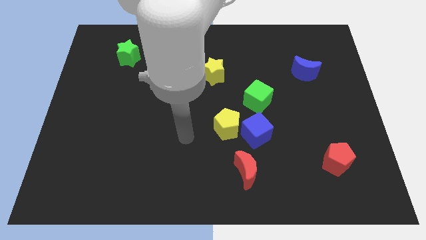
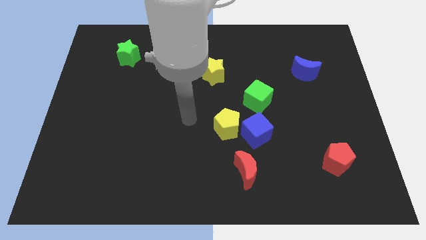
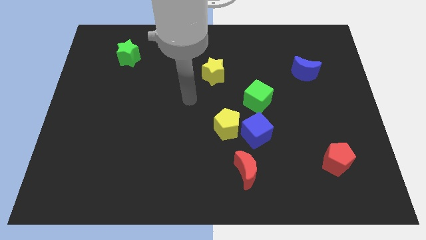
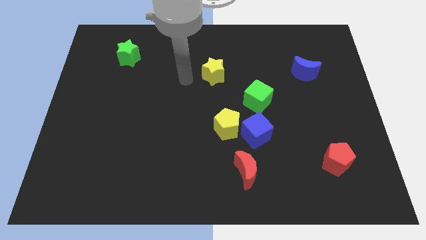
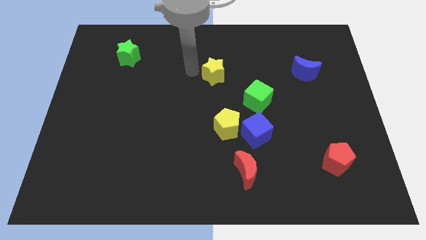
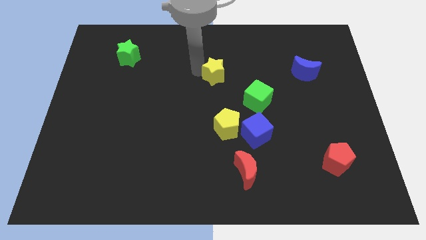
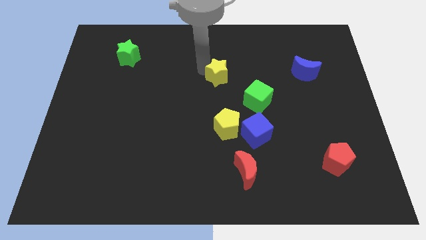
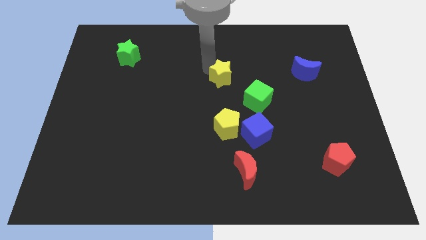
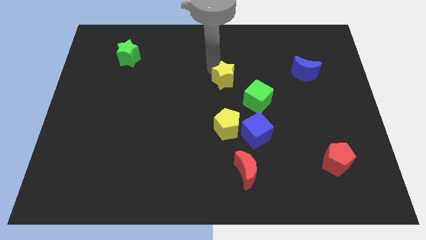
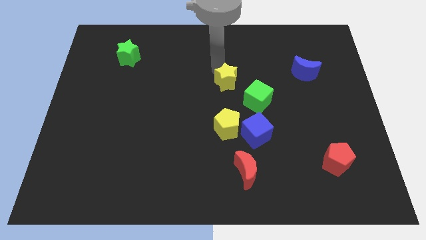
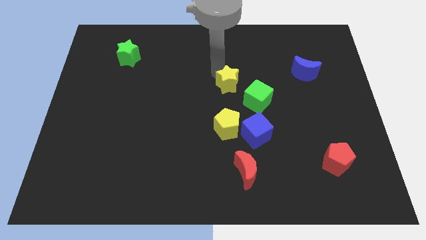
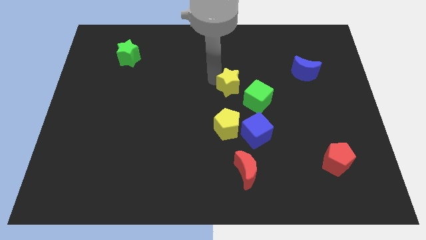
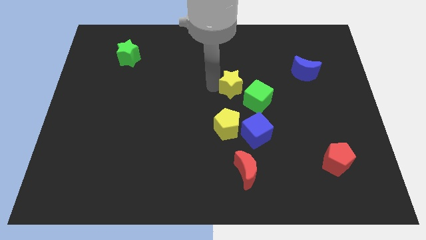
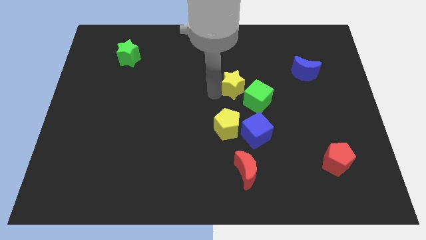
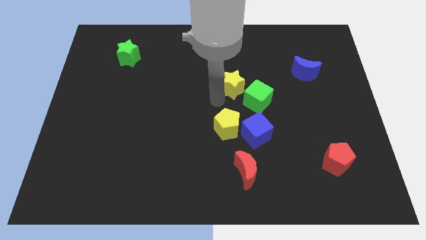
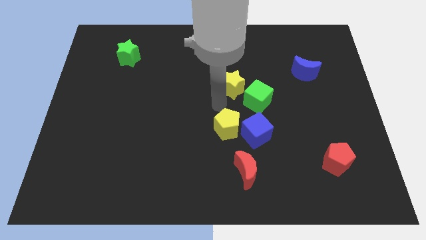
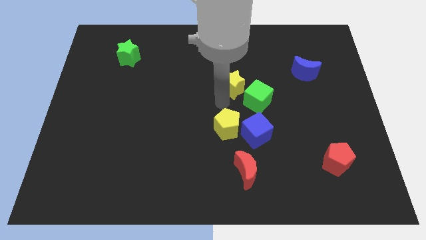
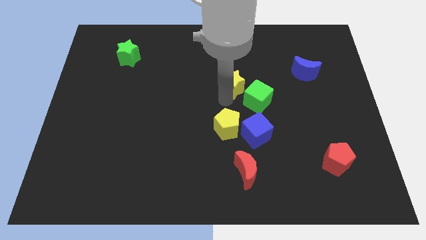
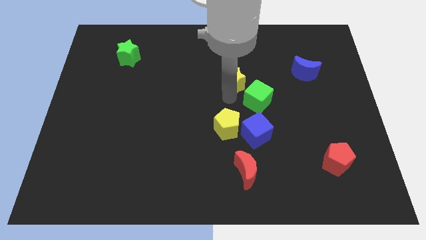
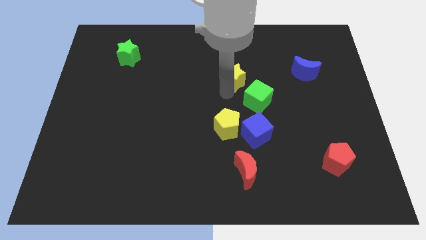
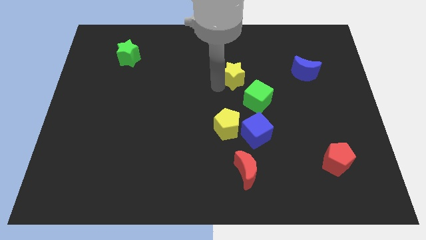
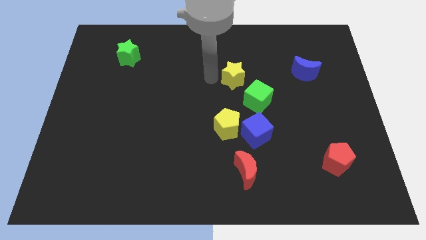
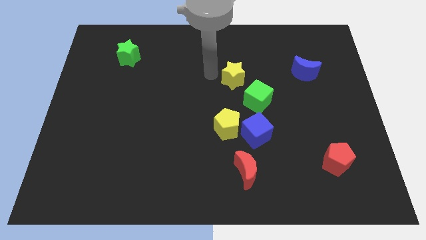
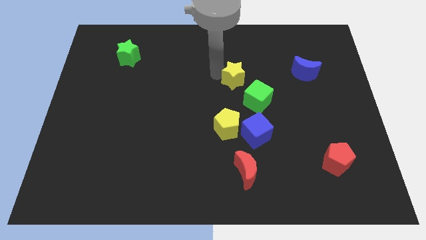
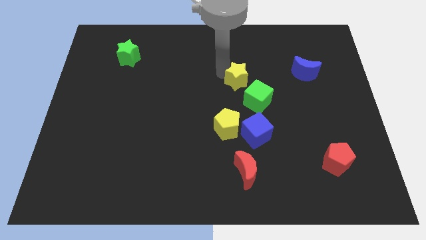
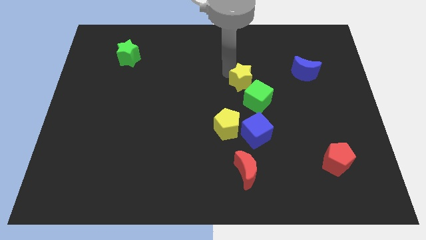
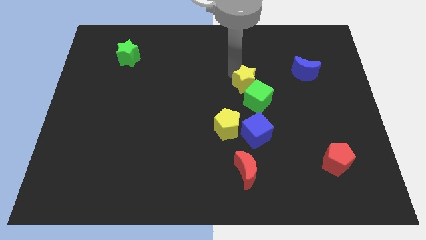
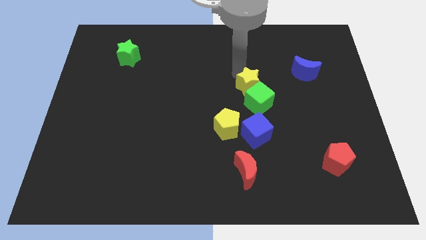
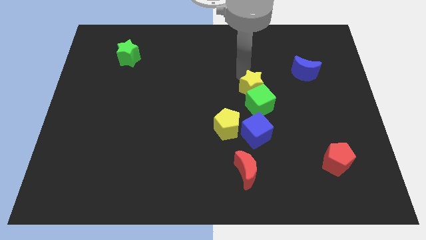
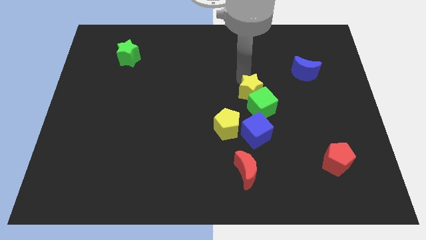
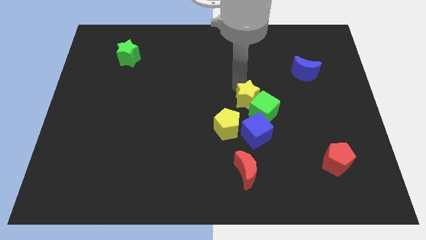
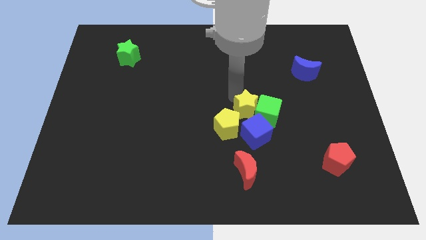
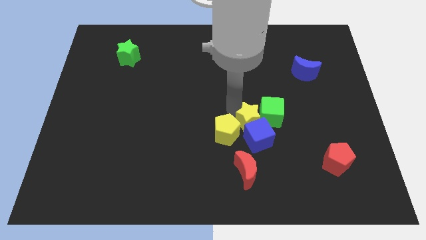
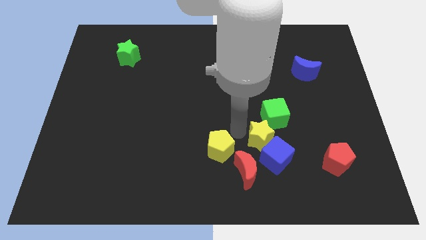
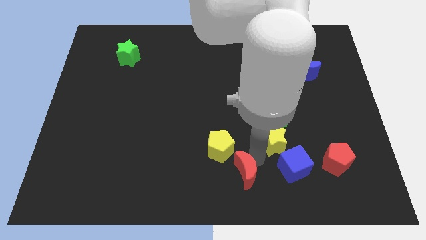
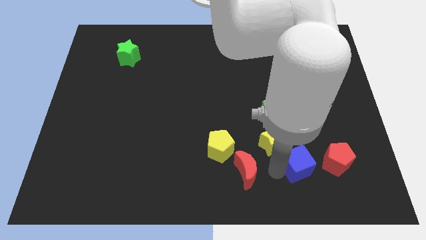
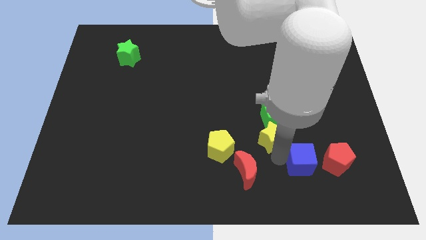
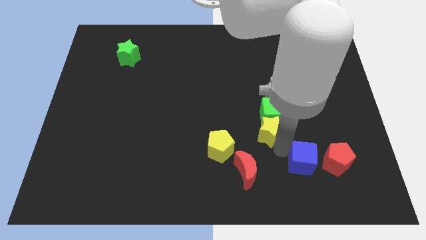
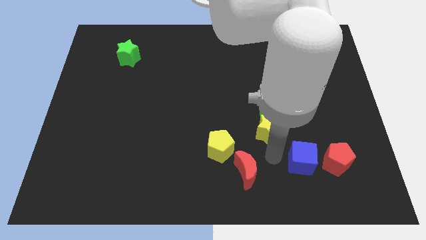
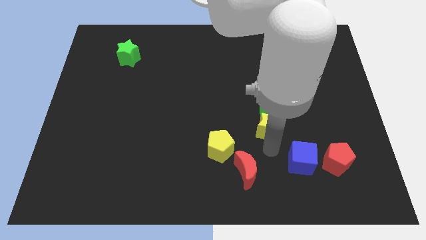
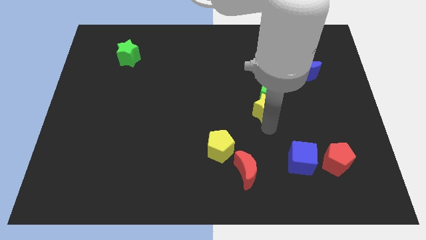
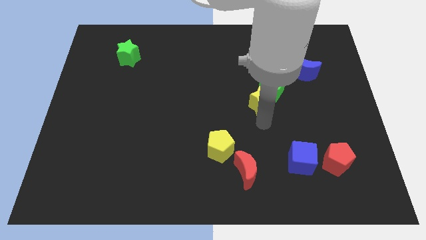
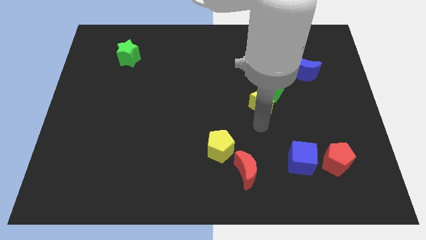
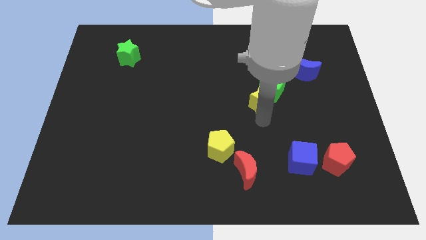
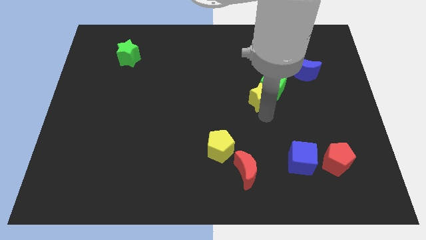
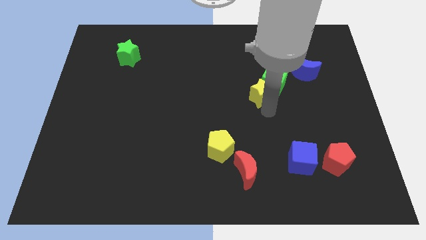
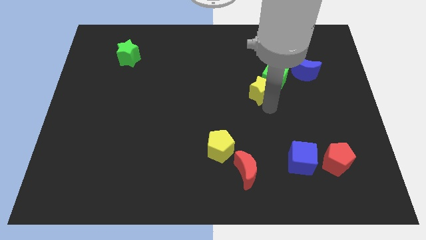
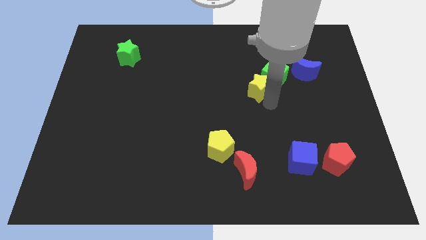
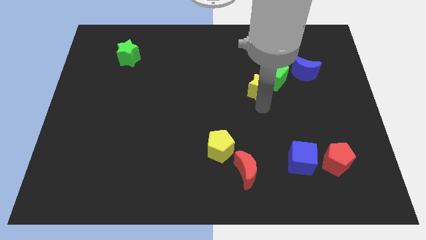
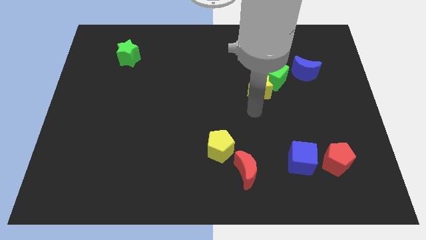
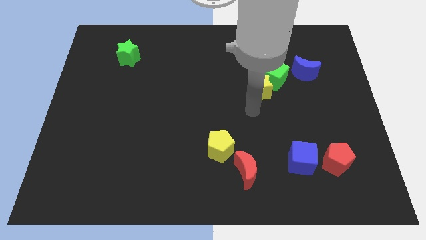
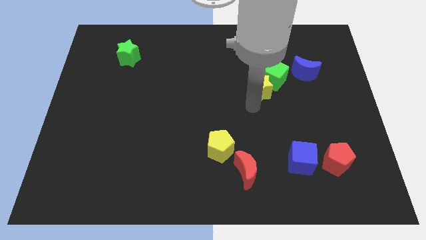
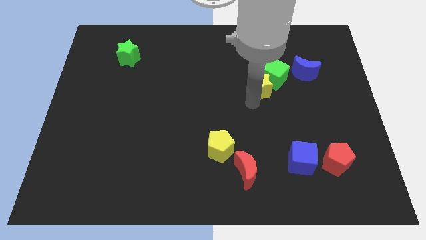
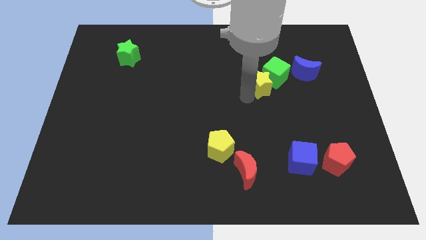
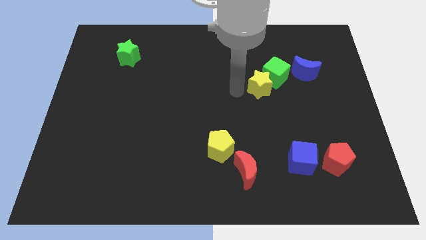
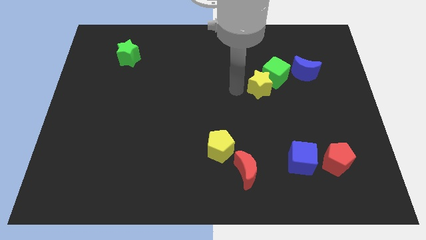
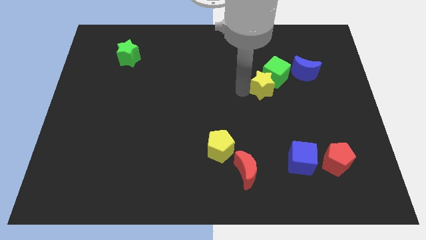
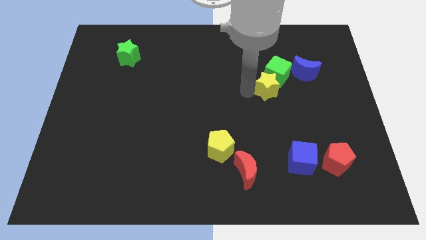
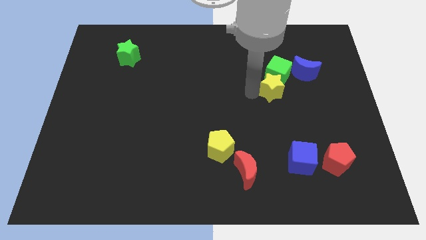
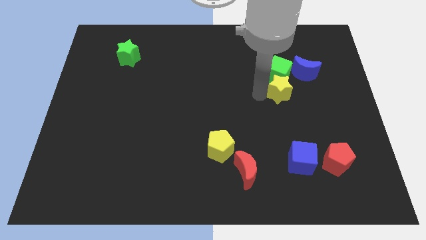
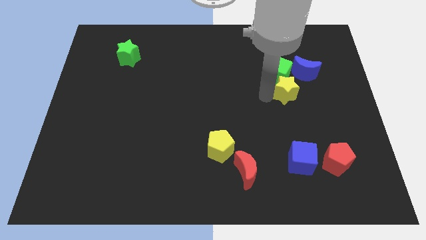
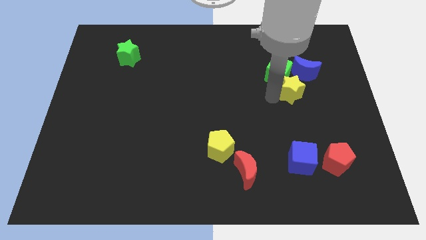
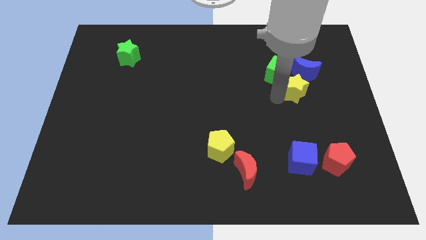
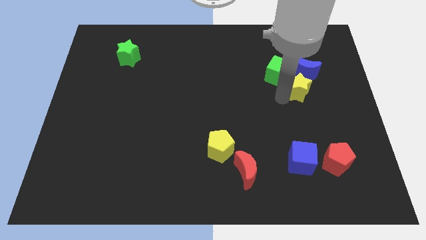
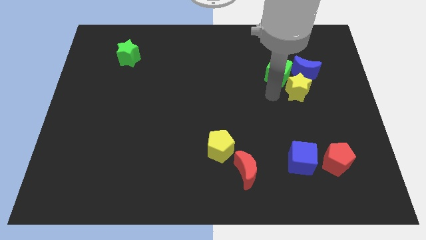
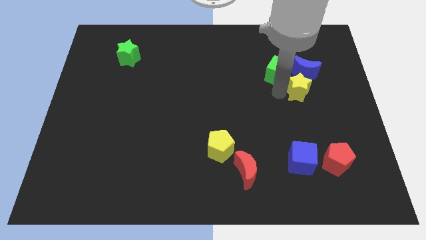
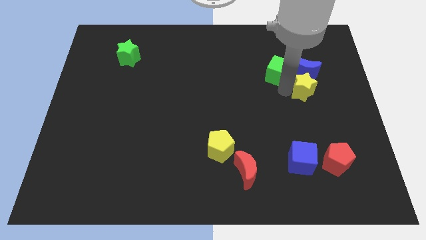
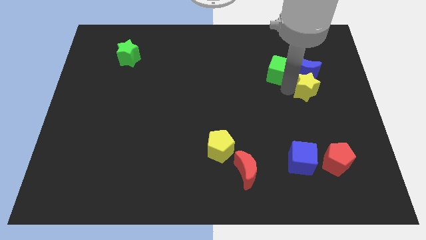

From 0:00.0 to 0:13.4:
move the yellow star diagonally down and to the right of the blue moon
